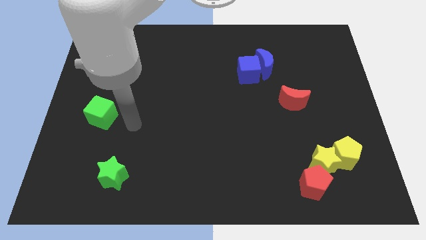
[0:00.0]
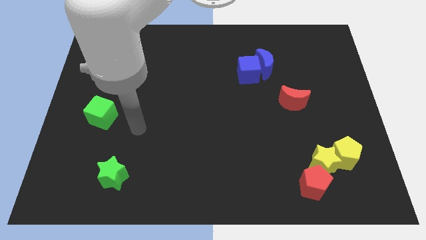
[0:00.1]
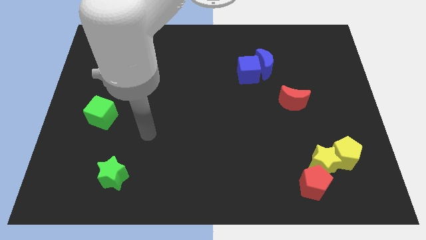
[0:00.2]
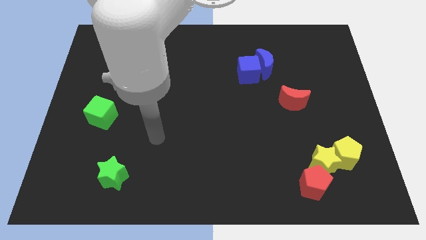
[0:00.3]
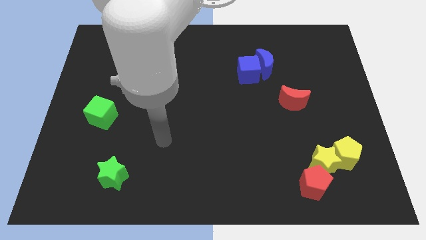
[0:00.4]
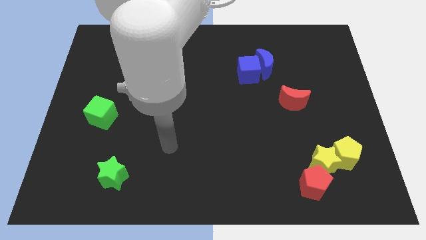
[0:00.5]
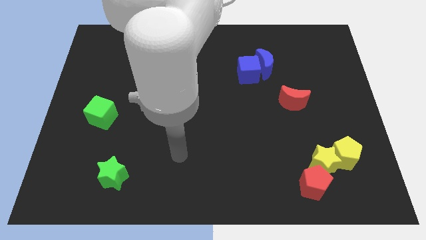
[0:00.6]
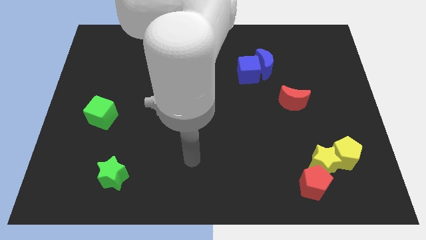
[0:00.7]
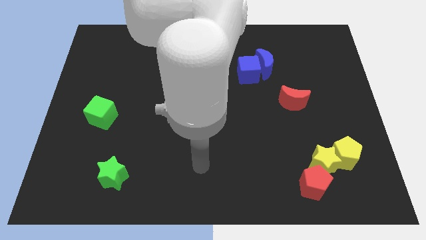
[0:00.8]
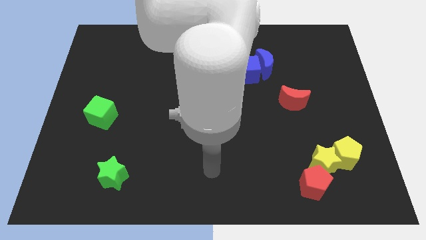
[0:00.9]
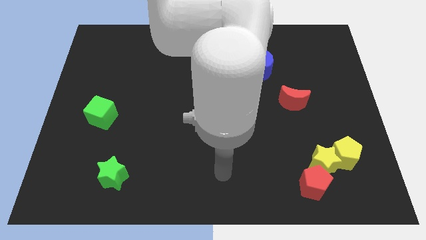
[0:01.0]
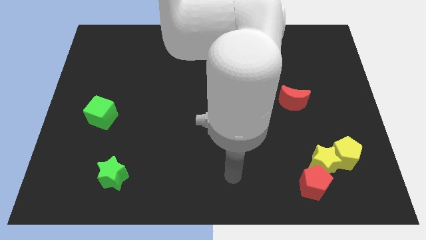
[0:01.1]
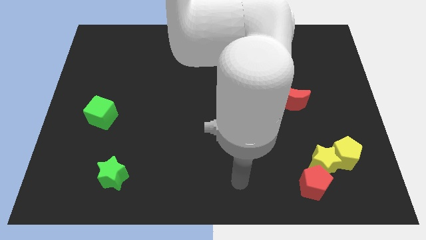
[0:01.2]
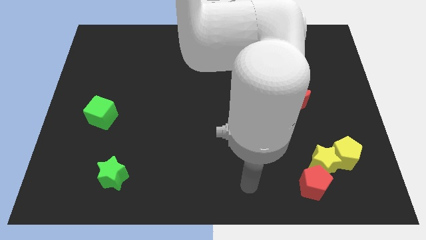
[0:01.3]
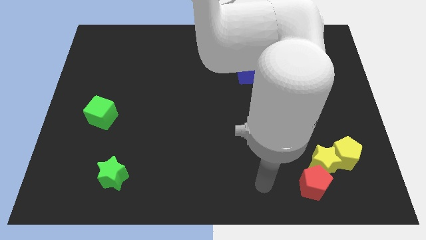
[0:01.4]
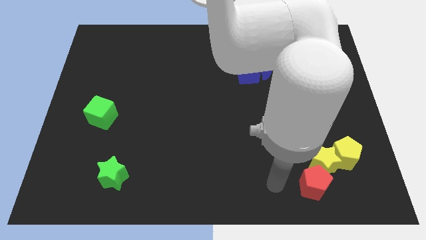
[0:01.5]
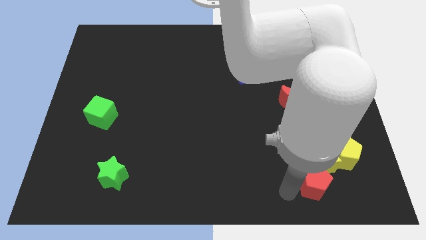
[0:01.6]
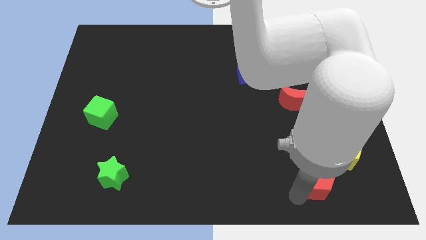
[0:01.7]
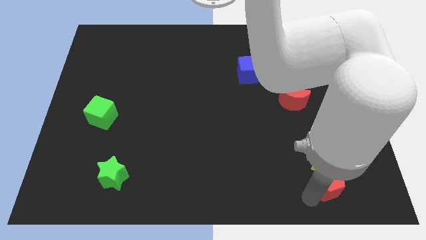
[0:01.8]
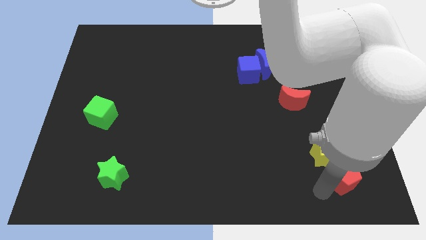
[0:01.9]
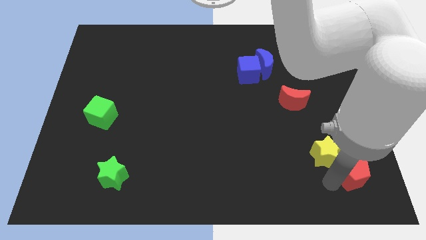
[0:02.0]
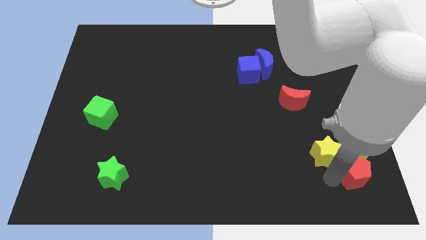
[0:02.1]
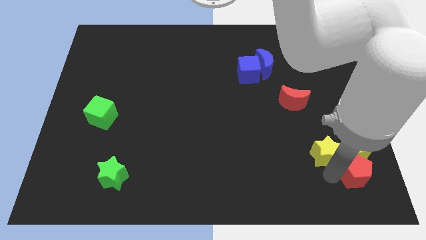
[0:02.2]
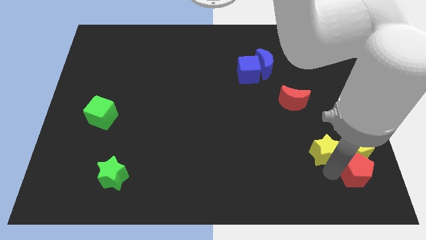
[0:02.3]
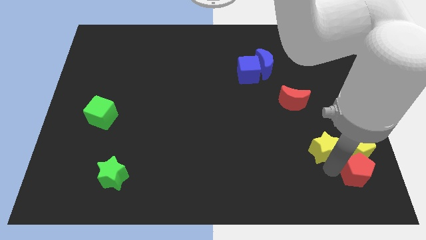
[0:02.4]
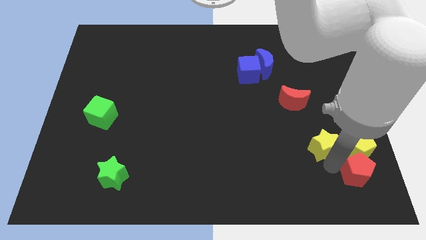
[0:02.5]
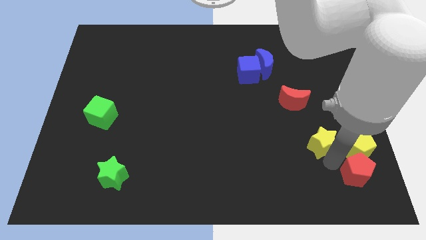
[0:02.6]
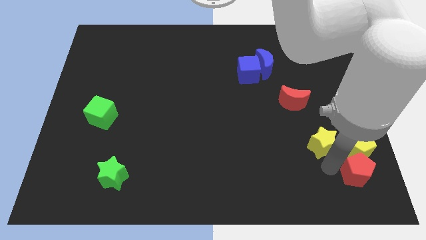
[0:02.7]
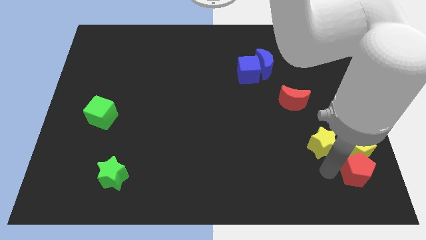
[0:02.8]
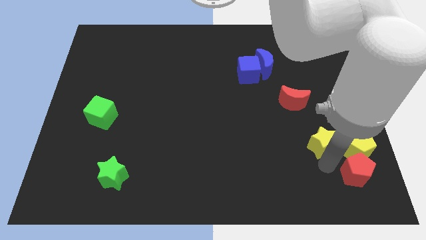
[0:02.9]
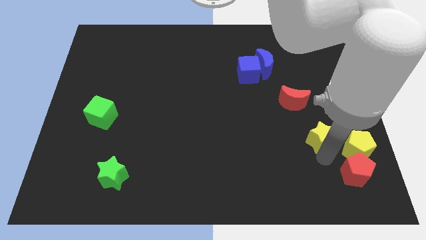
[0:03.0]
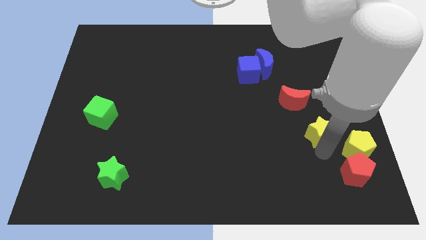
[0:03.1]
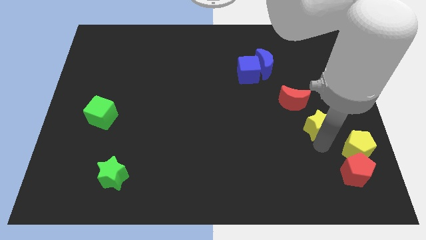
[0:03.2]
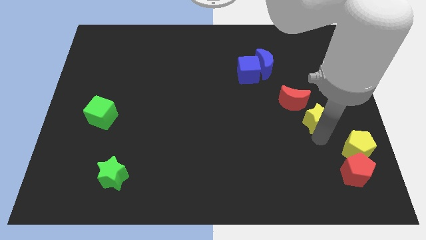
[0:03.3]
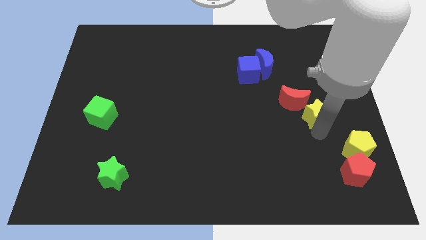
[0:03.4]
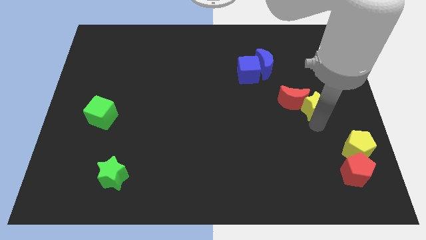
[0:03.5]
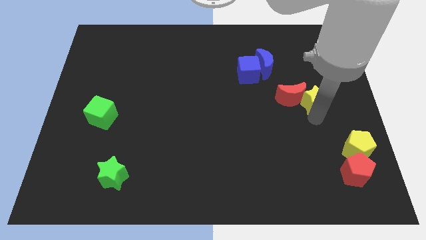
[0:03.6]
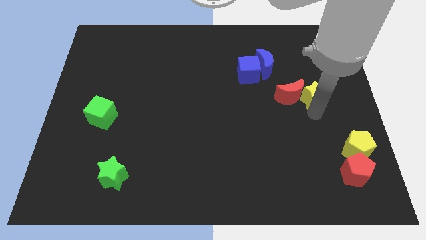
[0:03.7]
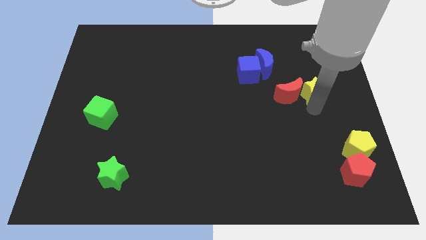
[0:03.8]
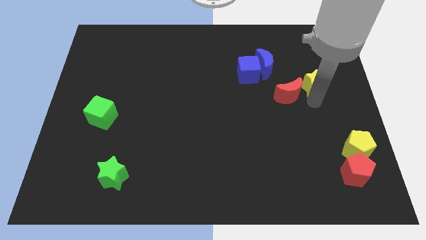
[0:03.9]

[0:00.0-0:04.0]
push the yellow star up

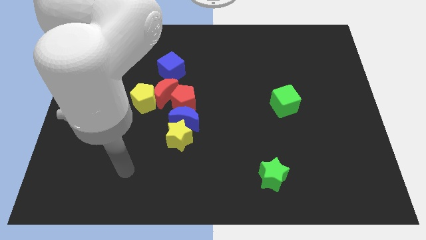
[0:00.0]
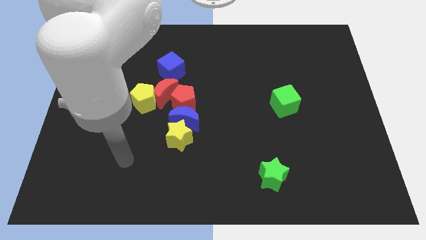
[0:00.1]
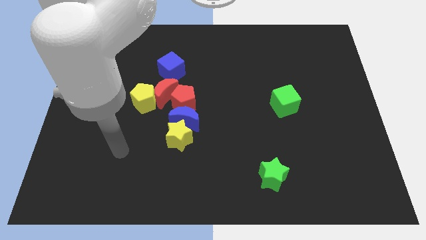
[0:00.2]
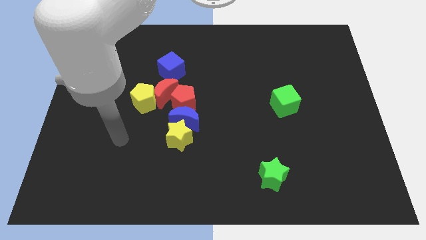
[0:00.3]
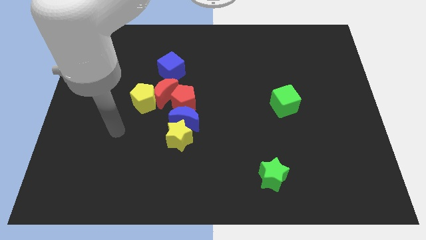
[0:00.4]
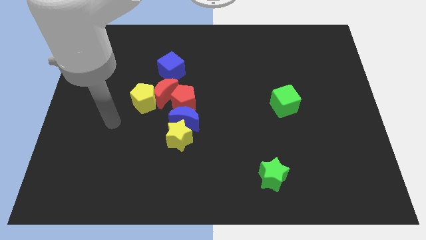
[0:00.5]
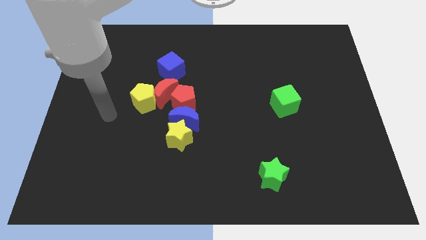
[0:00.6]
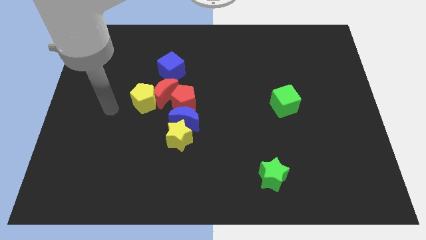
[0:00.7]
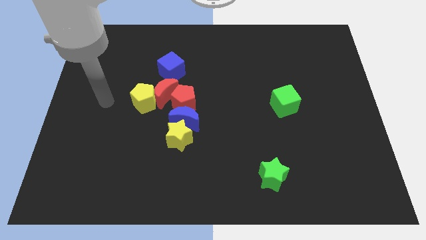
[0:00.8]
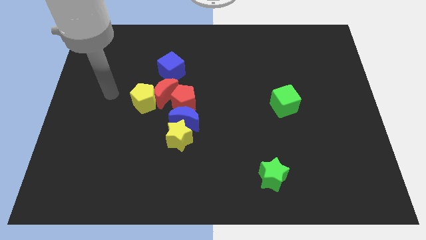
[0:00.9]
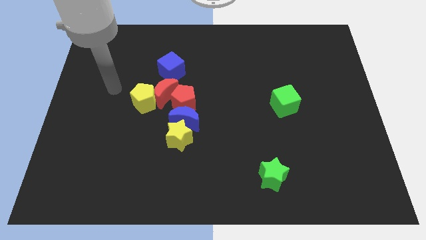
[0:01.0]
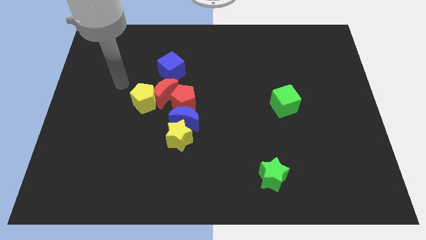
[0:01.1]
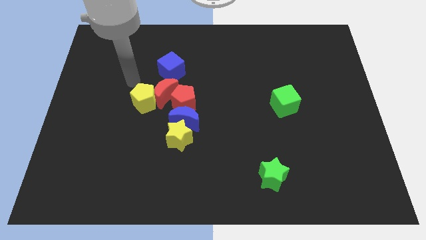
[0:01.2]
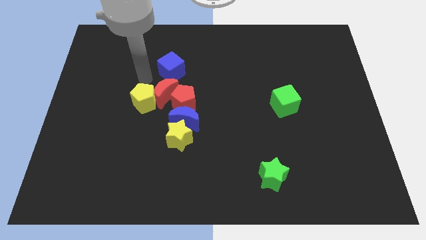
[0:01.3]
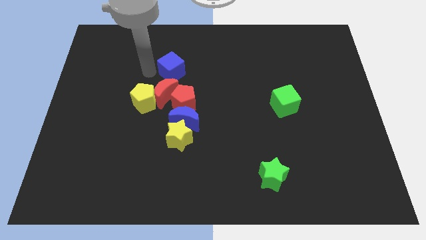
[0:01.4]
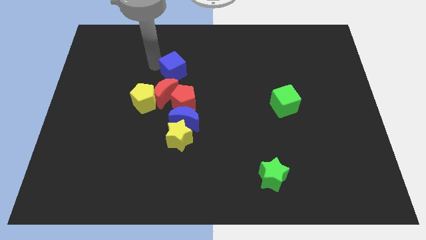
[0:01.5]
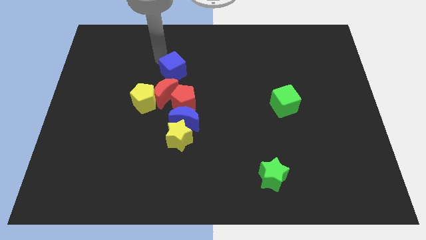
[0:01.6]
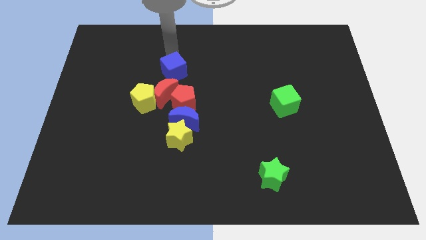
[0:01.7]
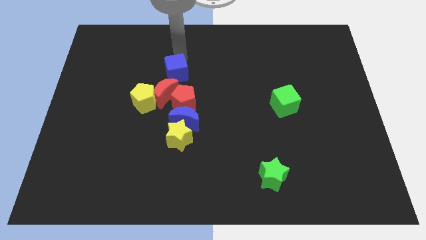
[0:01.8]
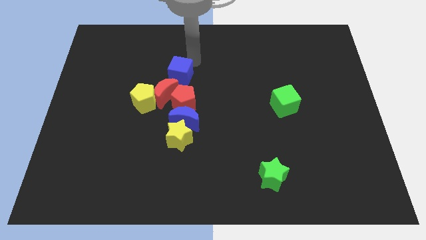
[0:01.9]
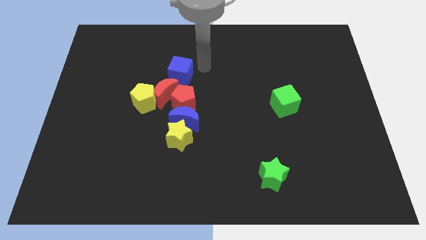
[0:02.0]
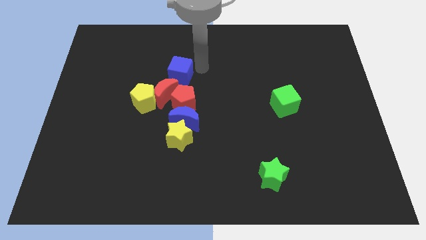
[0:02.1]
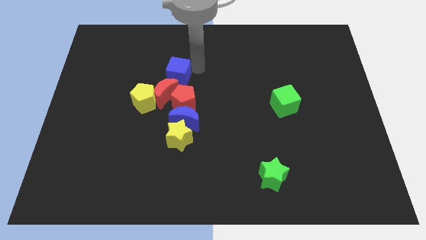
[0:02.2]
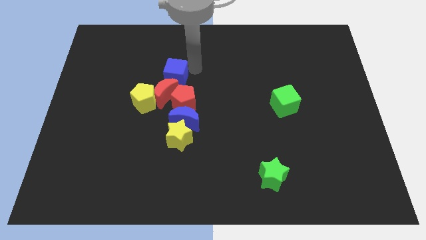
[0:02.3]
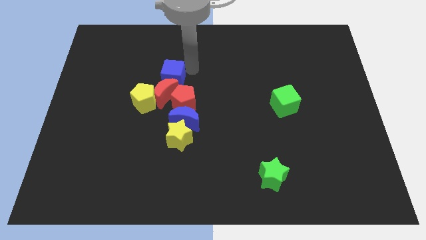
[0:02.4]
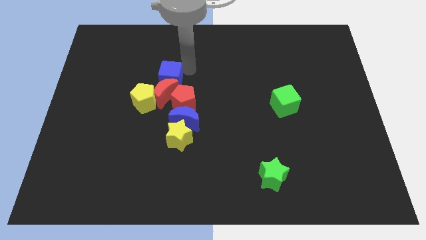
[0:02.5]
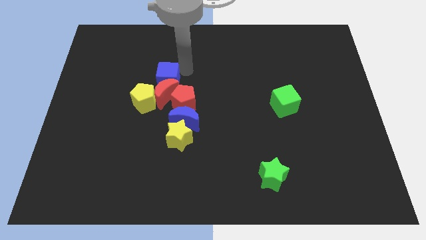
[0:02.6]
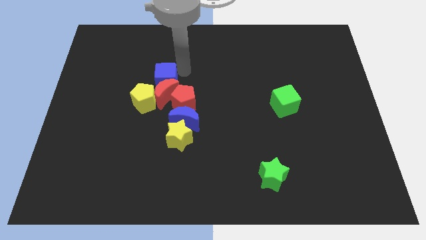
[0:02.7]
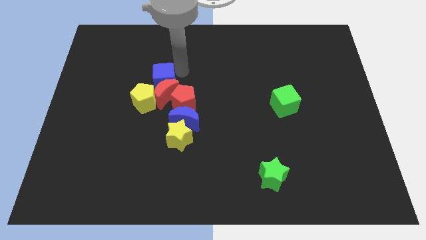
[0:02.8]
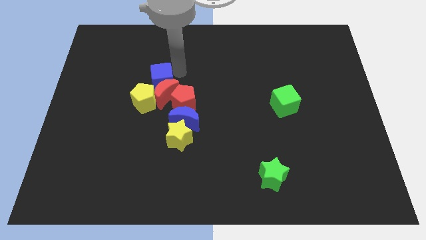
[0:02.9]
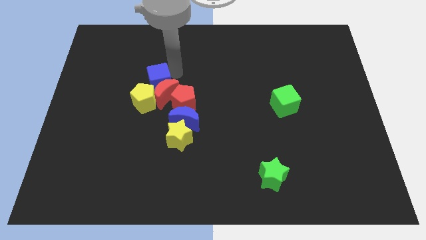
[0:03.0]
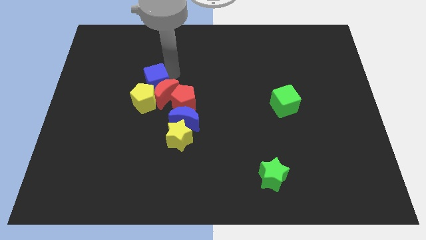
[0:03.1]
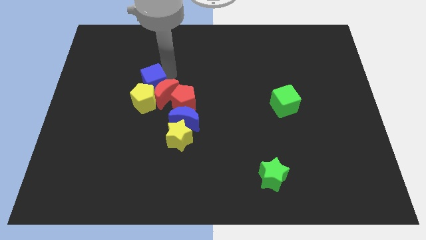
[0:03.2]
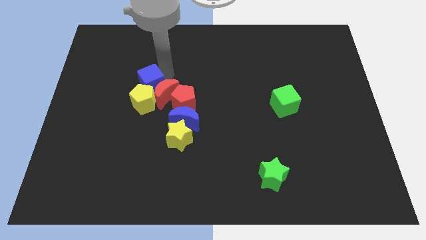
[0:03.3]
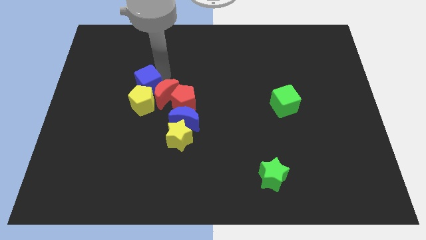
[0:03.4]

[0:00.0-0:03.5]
push the blue cube diagonally downwards and to the left slightly

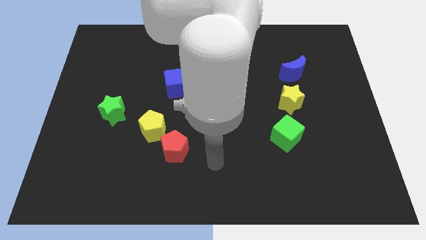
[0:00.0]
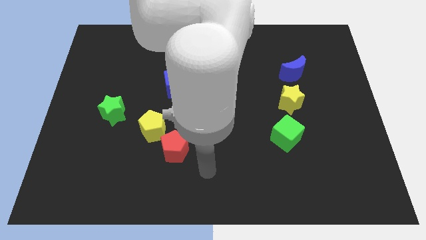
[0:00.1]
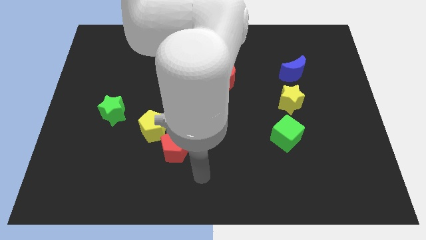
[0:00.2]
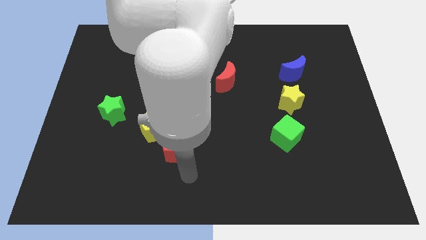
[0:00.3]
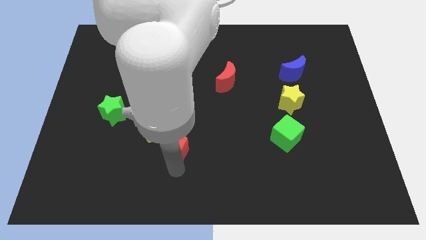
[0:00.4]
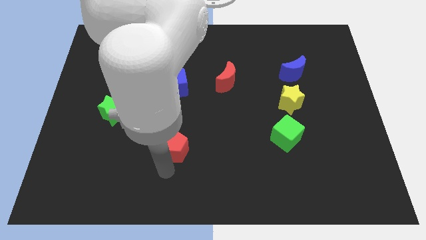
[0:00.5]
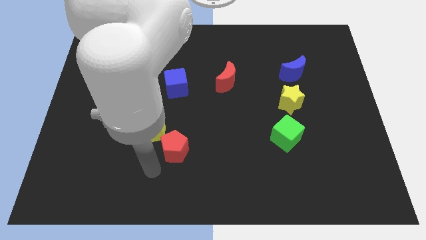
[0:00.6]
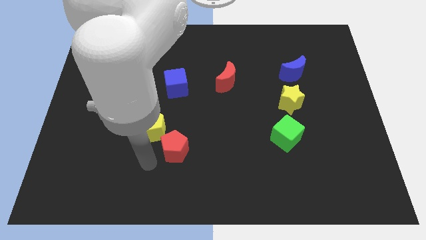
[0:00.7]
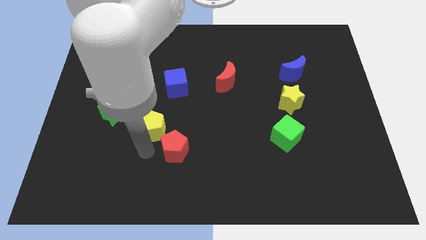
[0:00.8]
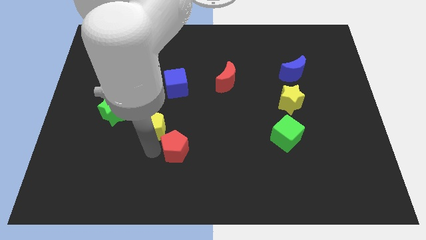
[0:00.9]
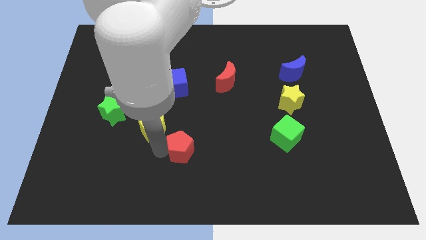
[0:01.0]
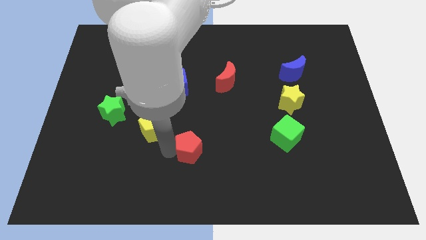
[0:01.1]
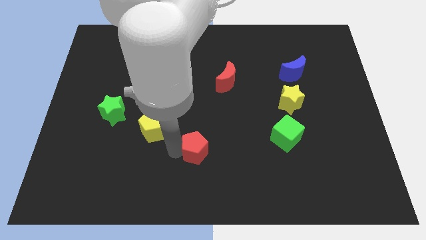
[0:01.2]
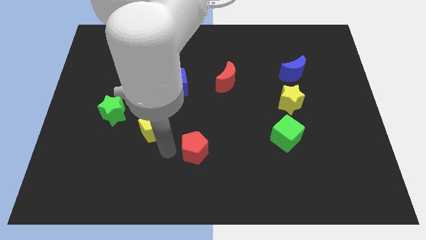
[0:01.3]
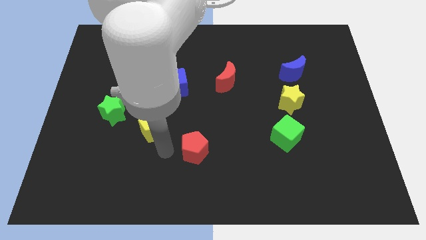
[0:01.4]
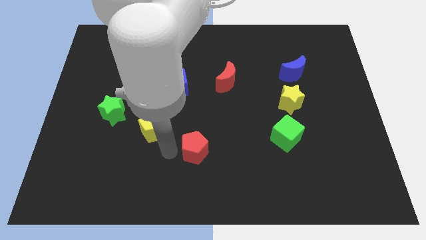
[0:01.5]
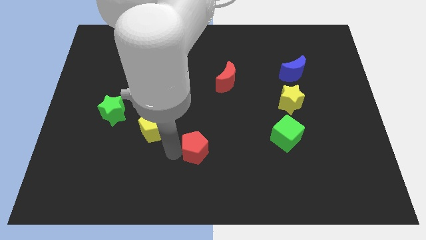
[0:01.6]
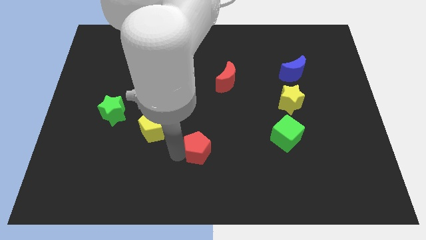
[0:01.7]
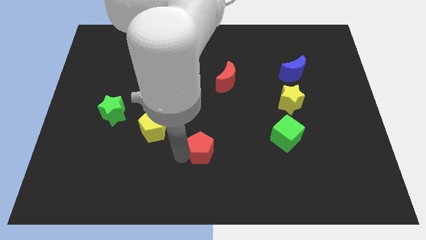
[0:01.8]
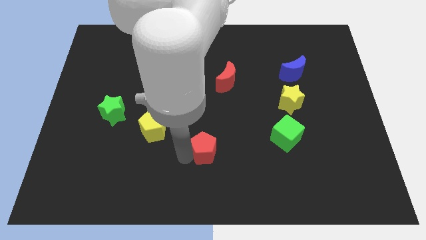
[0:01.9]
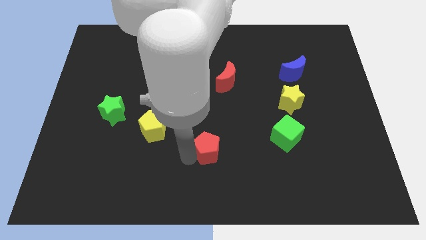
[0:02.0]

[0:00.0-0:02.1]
slightly push the red pentagon right
